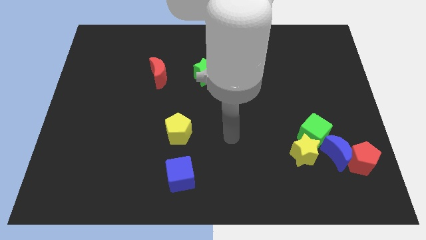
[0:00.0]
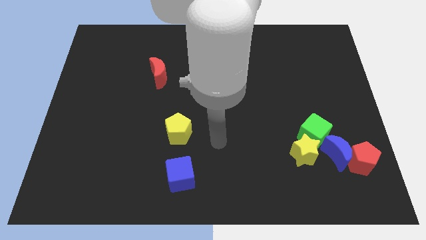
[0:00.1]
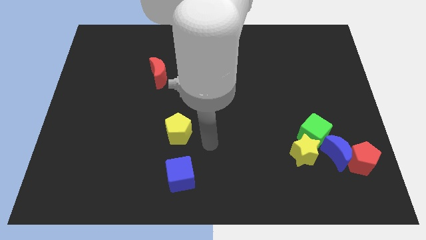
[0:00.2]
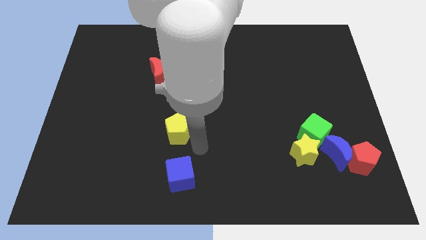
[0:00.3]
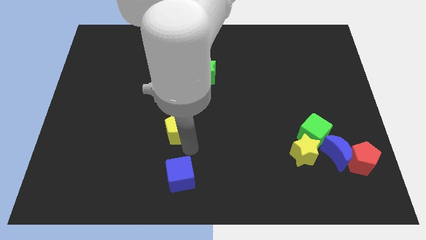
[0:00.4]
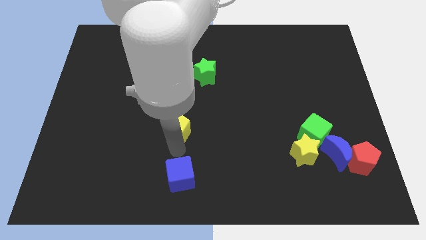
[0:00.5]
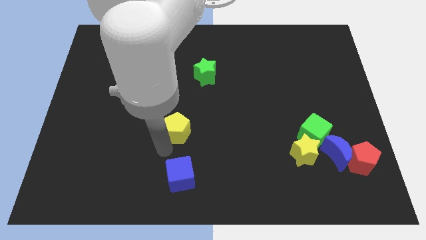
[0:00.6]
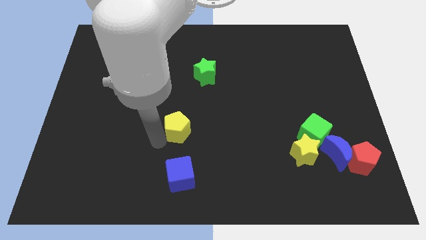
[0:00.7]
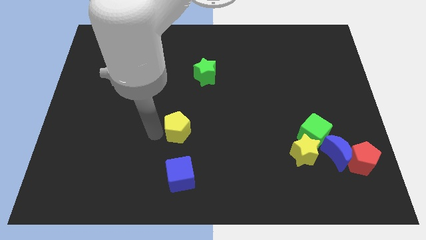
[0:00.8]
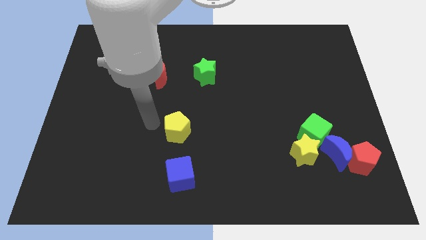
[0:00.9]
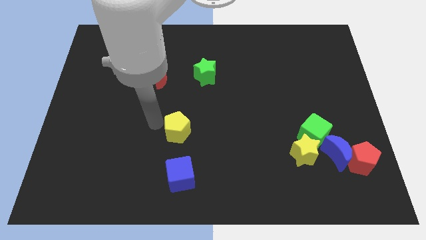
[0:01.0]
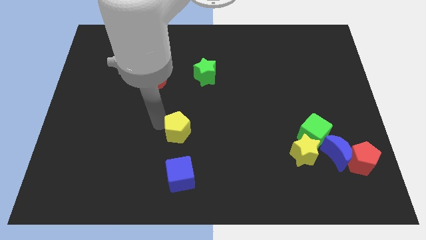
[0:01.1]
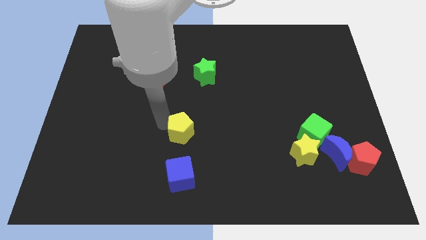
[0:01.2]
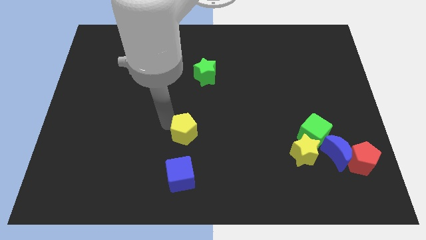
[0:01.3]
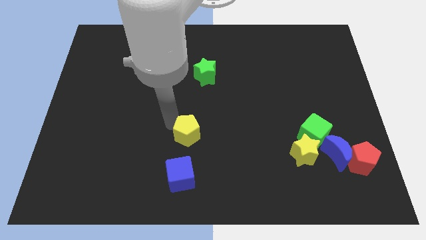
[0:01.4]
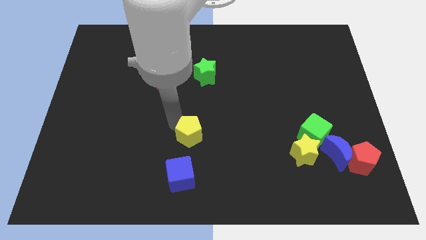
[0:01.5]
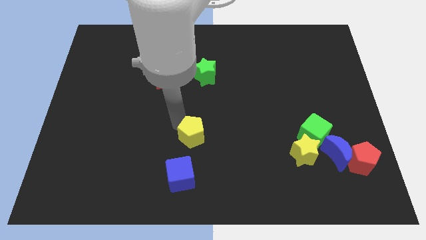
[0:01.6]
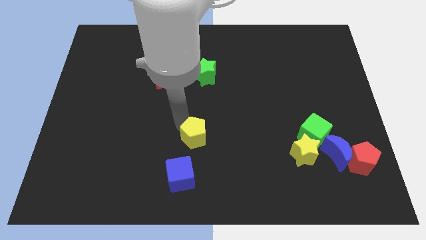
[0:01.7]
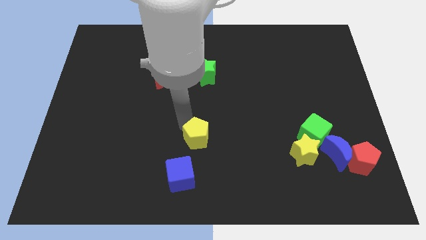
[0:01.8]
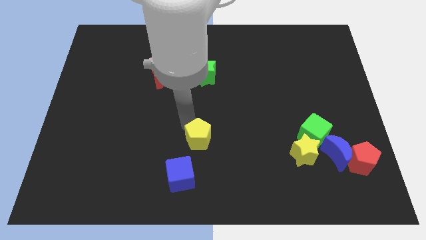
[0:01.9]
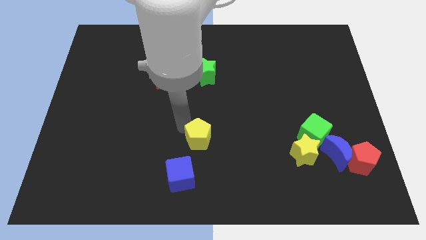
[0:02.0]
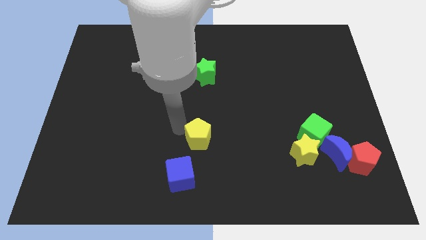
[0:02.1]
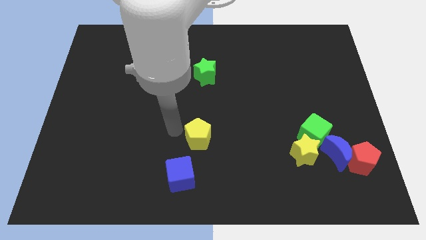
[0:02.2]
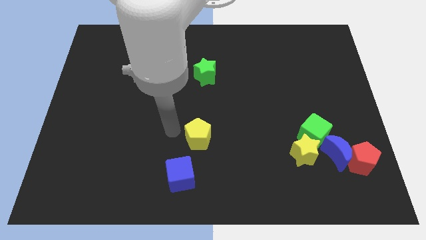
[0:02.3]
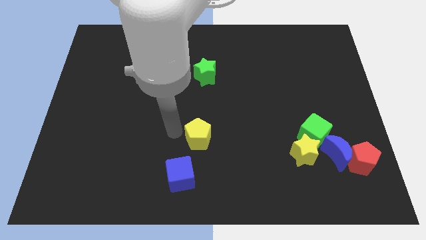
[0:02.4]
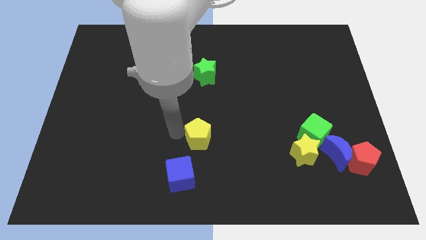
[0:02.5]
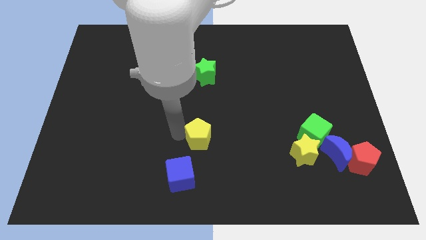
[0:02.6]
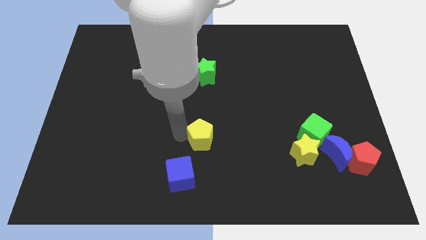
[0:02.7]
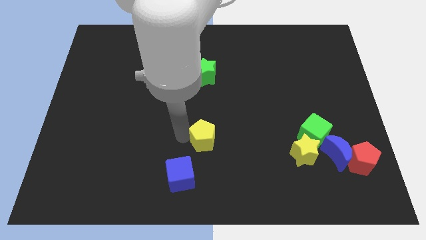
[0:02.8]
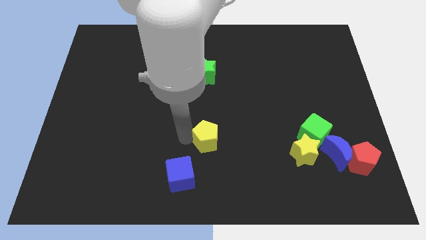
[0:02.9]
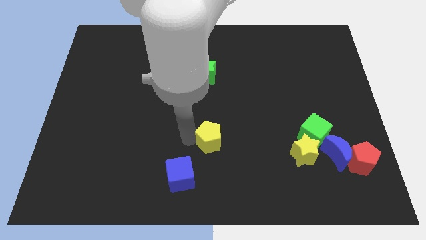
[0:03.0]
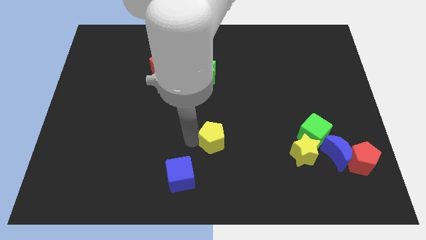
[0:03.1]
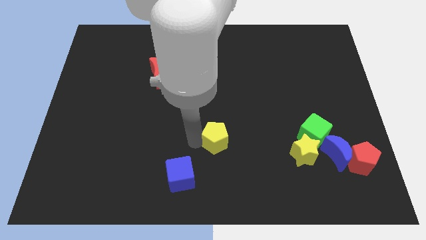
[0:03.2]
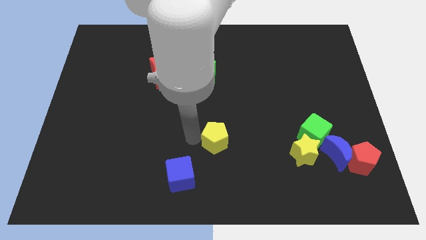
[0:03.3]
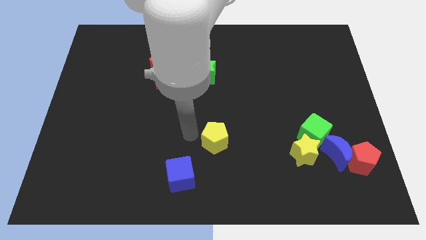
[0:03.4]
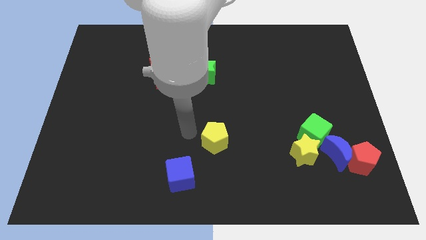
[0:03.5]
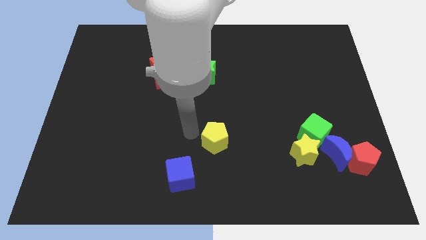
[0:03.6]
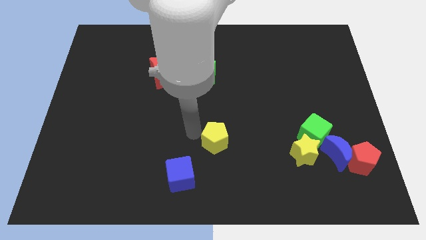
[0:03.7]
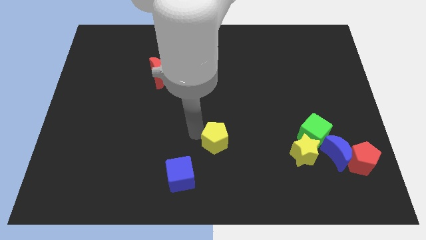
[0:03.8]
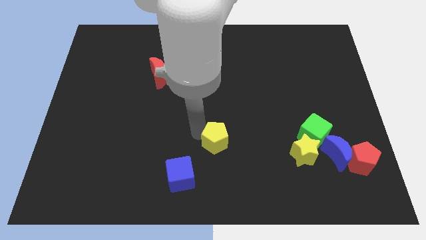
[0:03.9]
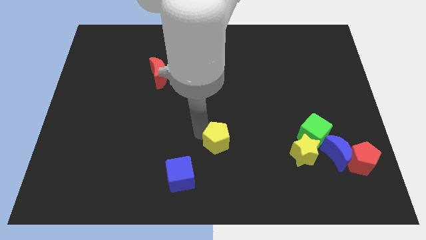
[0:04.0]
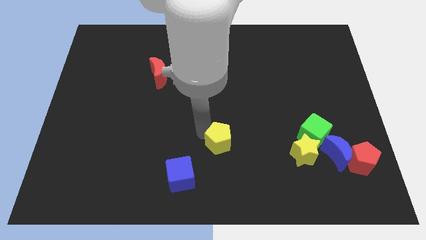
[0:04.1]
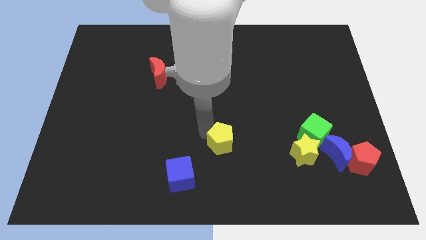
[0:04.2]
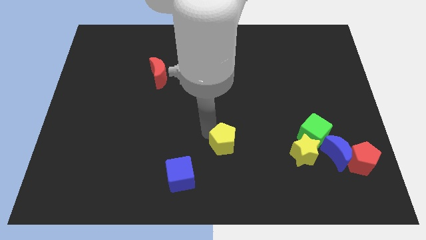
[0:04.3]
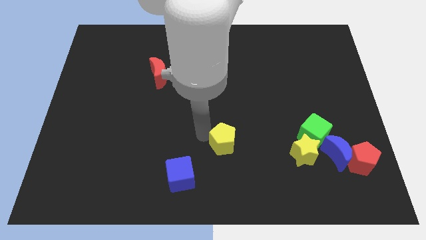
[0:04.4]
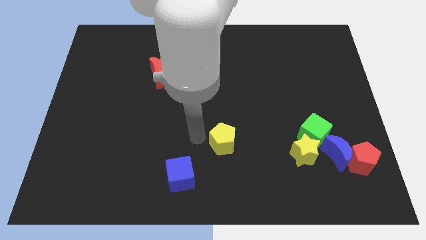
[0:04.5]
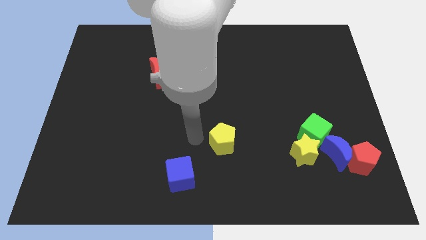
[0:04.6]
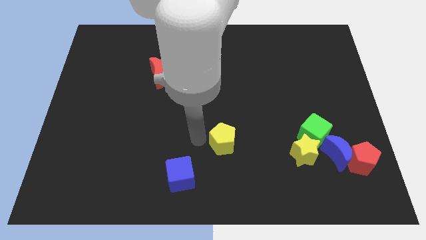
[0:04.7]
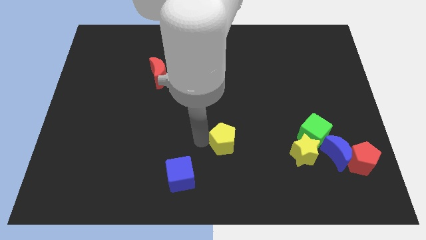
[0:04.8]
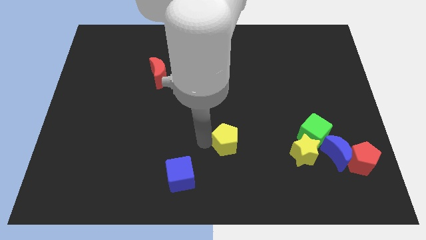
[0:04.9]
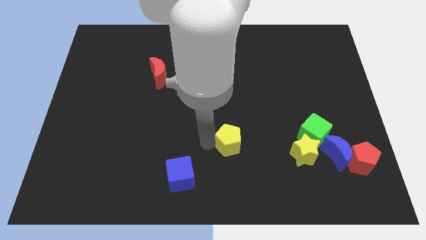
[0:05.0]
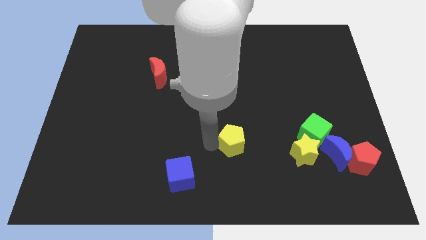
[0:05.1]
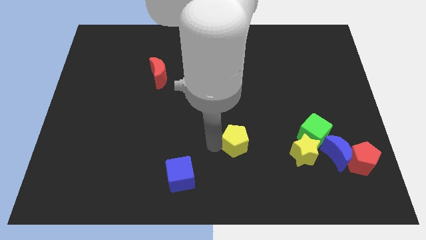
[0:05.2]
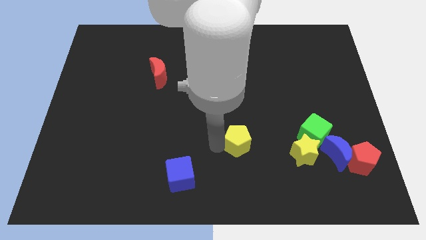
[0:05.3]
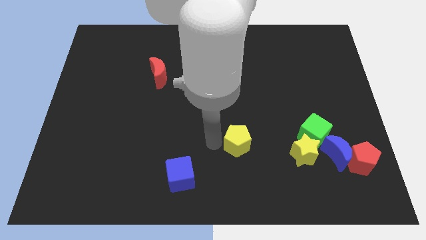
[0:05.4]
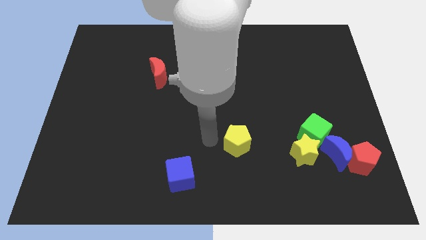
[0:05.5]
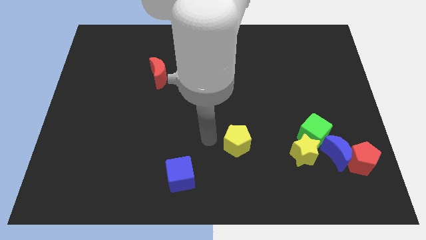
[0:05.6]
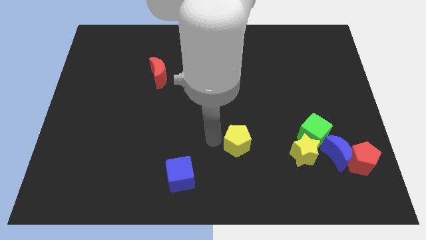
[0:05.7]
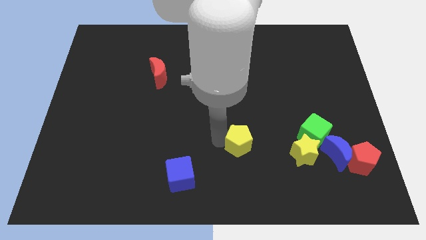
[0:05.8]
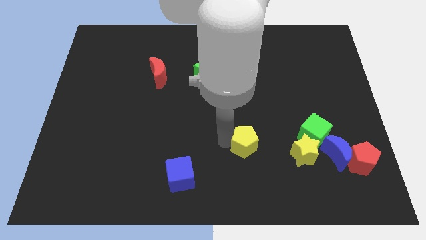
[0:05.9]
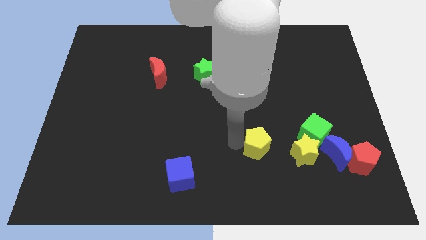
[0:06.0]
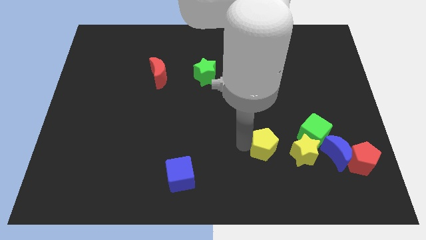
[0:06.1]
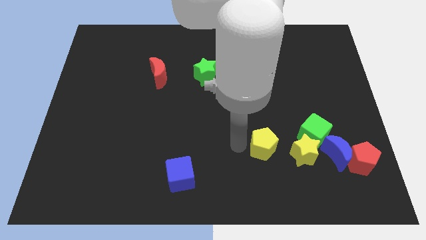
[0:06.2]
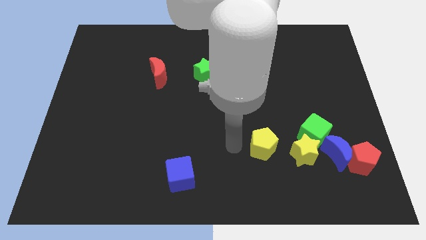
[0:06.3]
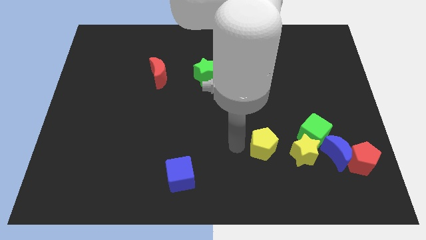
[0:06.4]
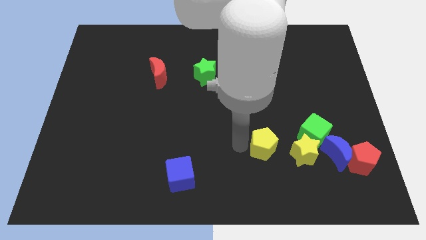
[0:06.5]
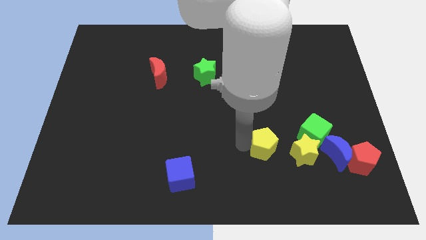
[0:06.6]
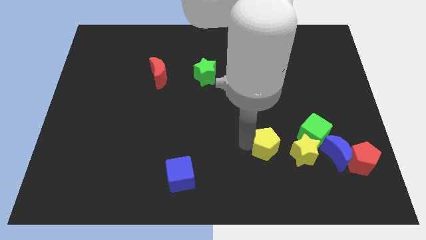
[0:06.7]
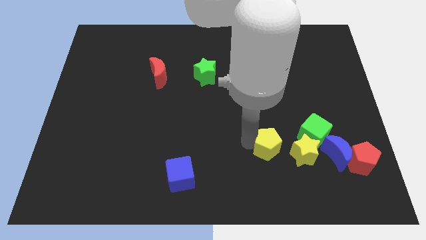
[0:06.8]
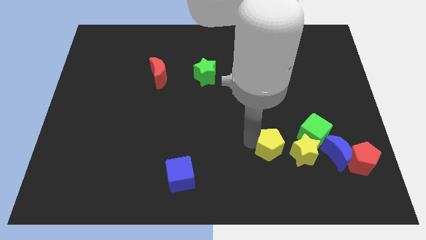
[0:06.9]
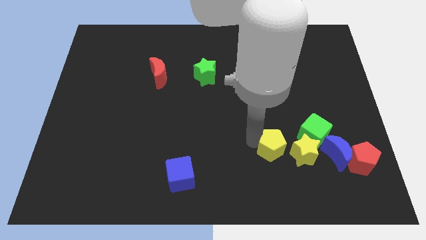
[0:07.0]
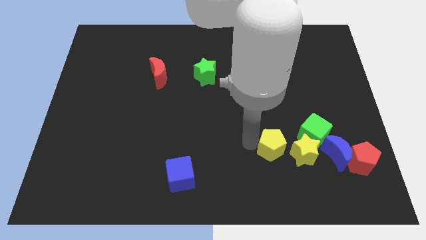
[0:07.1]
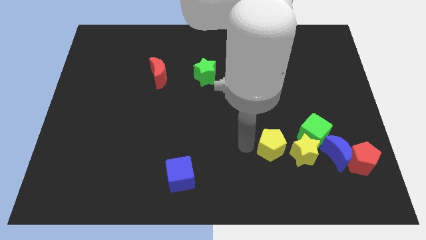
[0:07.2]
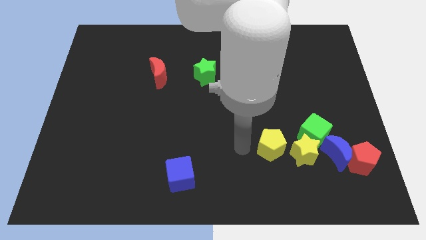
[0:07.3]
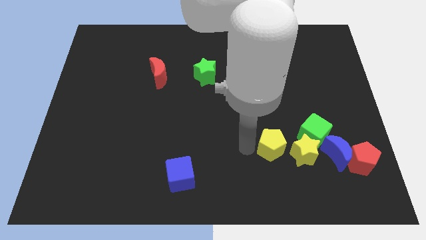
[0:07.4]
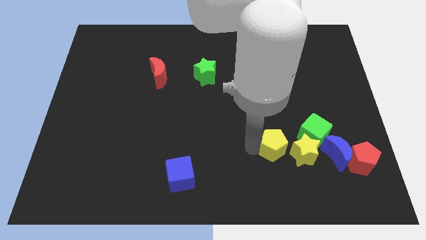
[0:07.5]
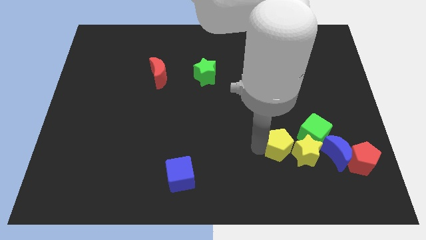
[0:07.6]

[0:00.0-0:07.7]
put the yellow pentagon to the yellow star
